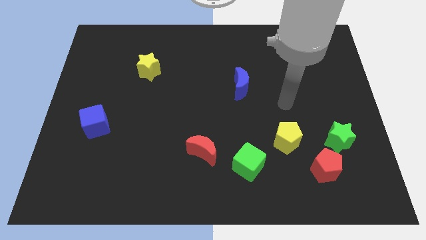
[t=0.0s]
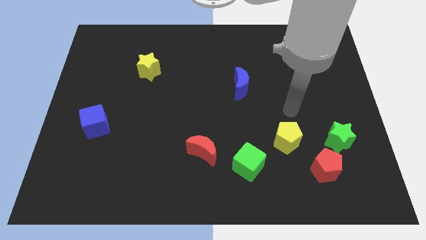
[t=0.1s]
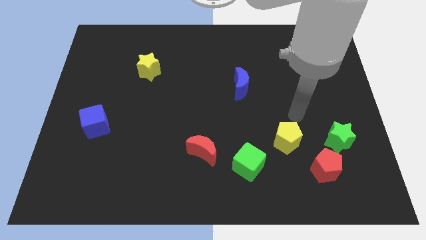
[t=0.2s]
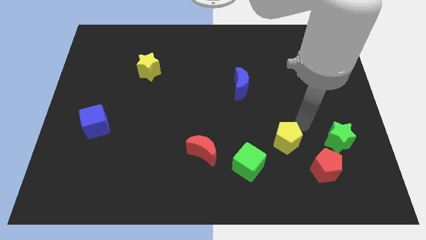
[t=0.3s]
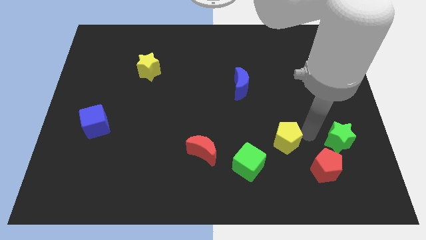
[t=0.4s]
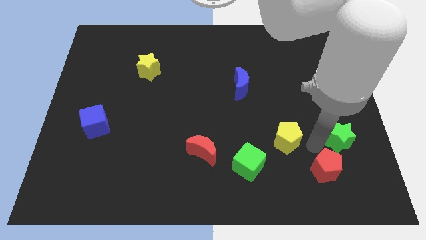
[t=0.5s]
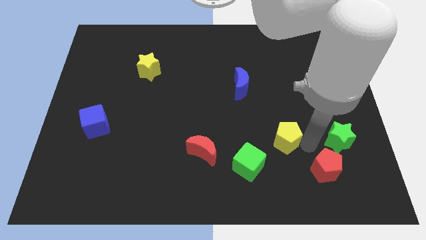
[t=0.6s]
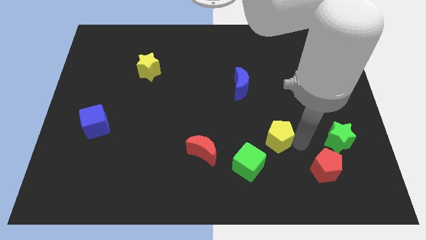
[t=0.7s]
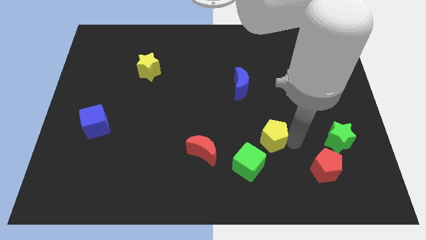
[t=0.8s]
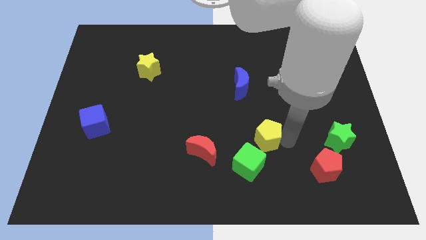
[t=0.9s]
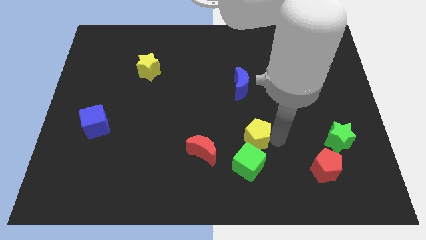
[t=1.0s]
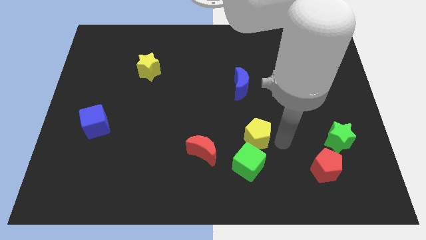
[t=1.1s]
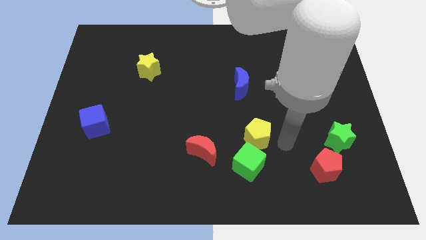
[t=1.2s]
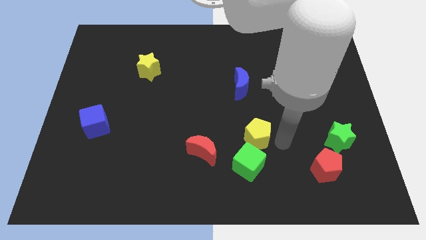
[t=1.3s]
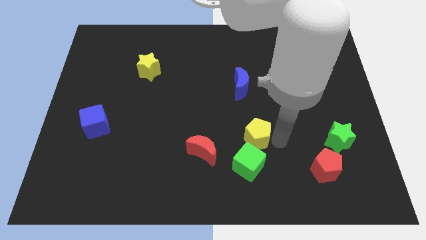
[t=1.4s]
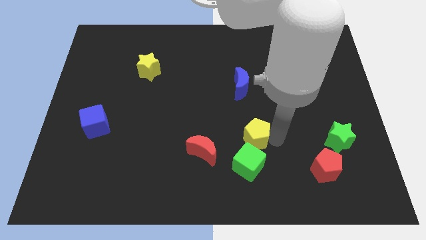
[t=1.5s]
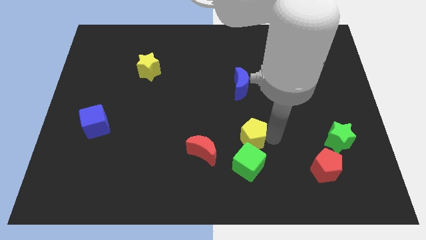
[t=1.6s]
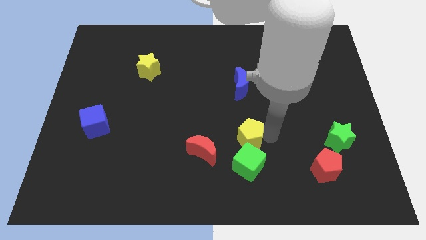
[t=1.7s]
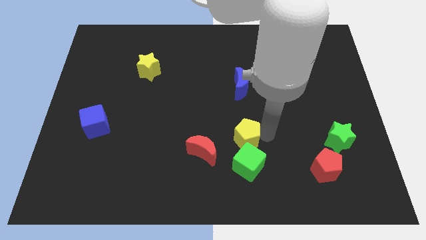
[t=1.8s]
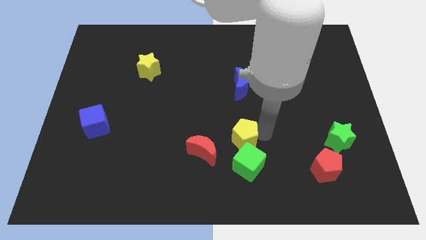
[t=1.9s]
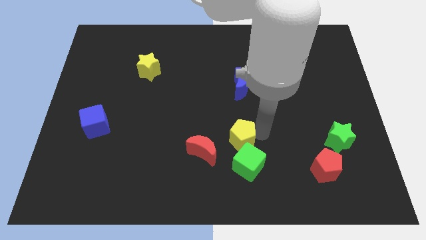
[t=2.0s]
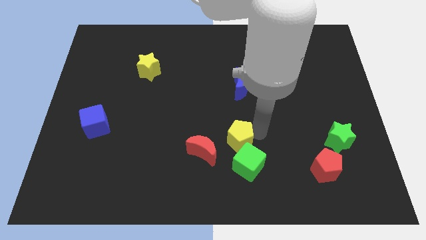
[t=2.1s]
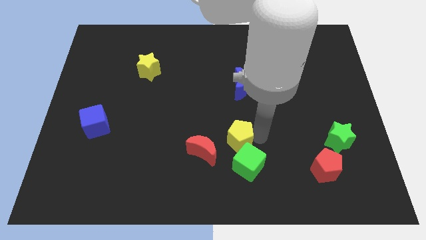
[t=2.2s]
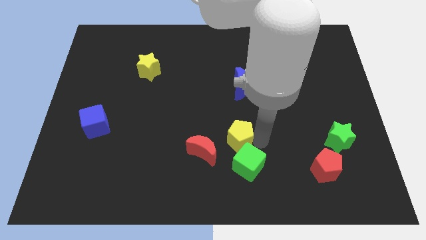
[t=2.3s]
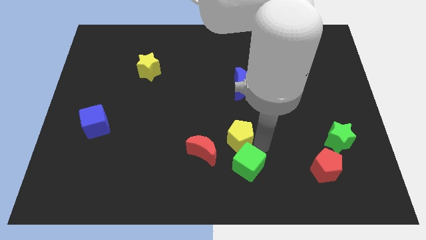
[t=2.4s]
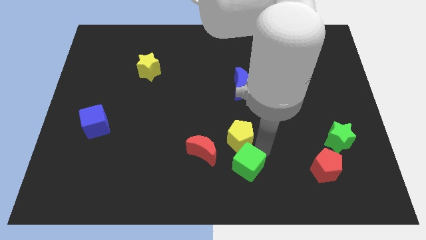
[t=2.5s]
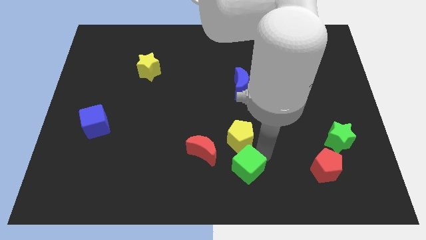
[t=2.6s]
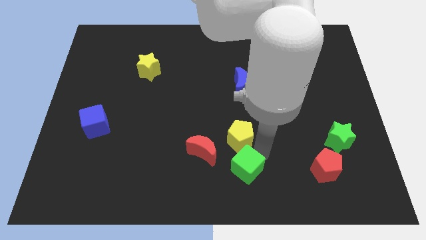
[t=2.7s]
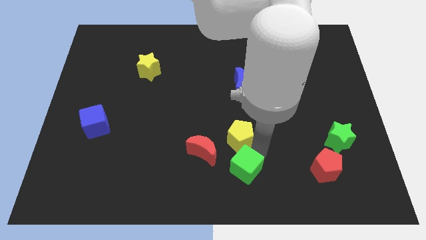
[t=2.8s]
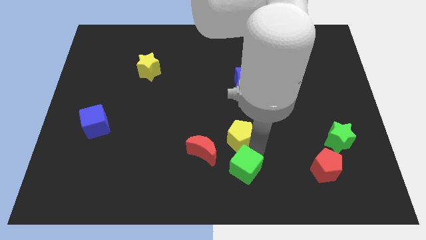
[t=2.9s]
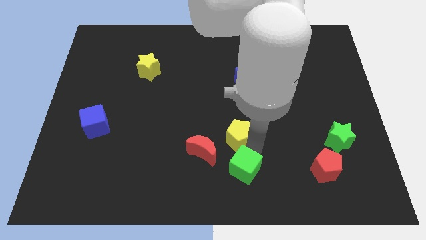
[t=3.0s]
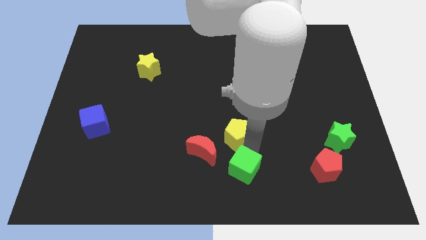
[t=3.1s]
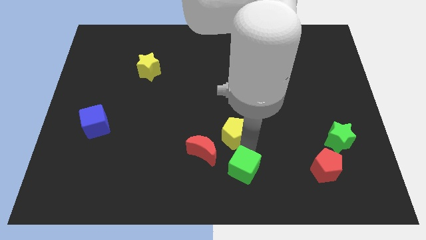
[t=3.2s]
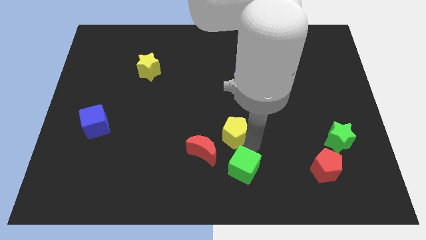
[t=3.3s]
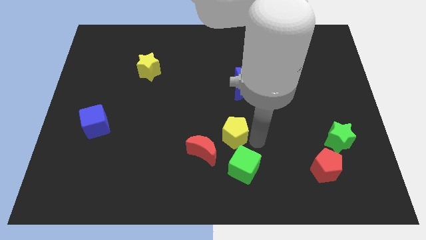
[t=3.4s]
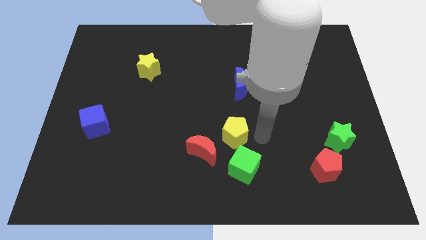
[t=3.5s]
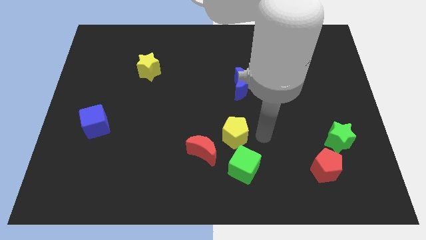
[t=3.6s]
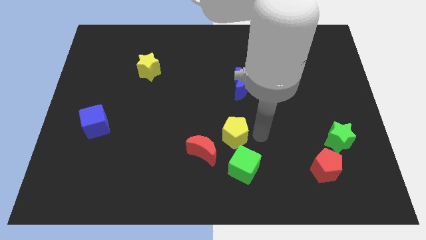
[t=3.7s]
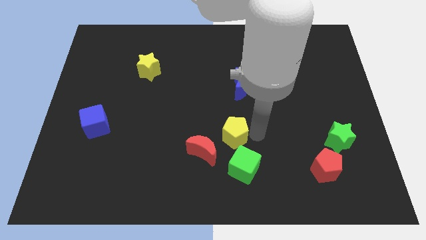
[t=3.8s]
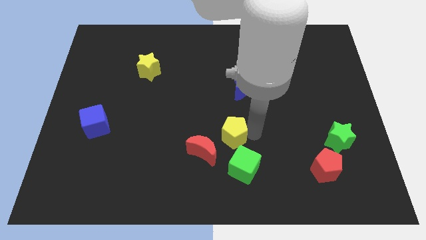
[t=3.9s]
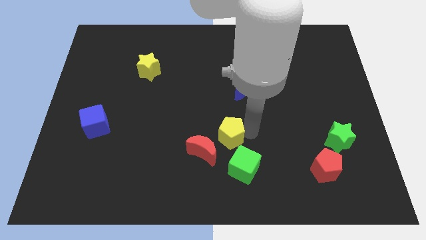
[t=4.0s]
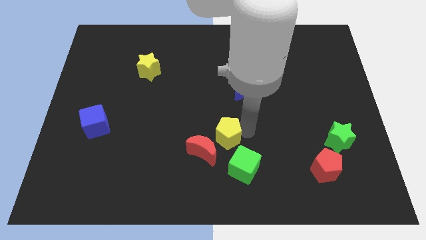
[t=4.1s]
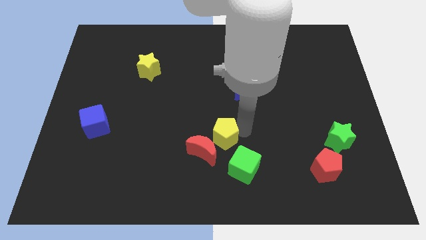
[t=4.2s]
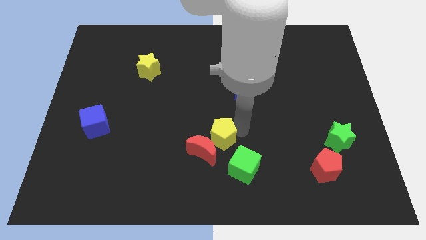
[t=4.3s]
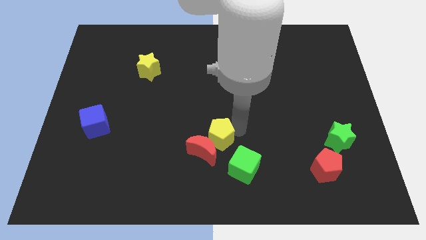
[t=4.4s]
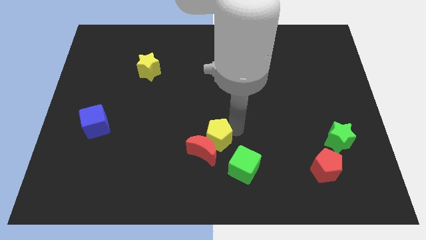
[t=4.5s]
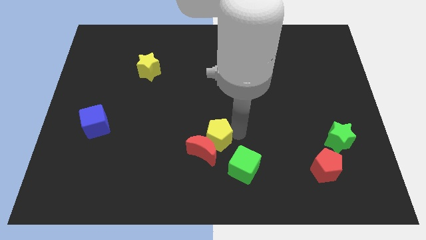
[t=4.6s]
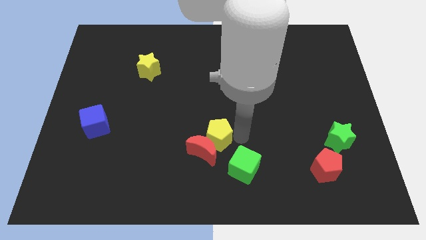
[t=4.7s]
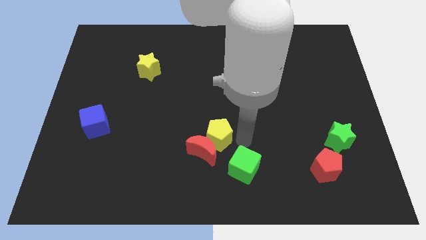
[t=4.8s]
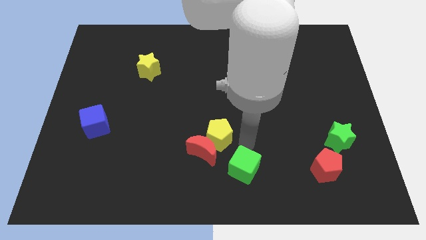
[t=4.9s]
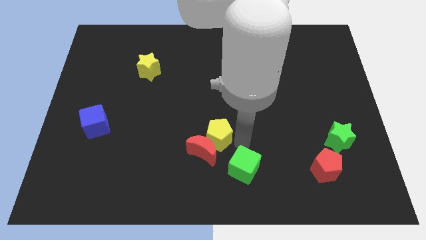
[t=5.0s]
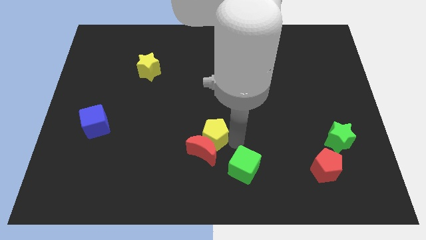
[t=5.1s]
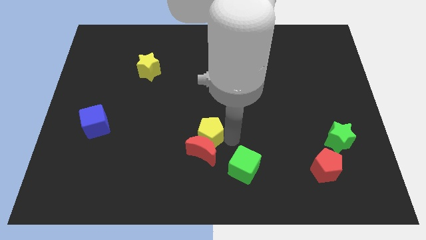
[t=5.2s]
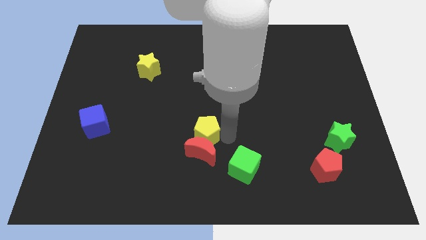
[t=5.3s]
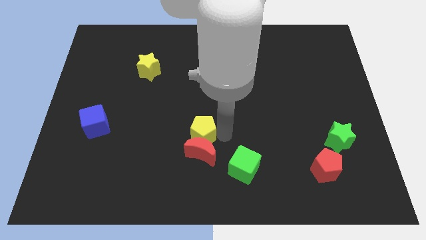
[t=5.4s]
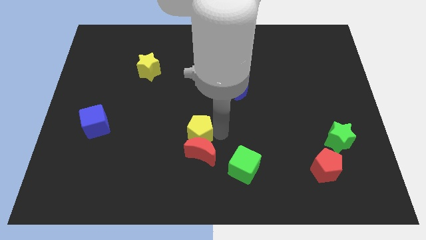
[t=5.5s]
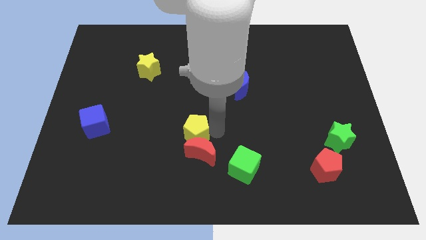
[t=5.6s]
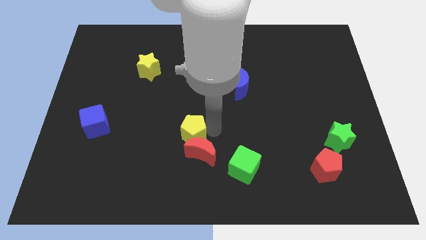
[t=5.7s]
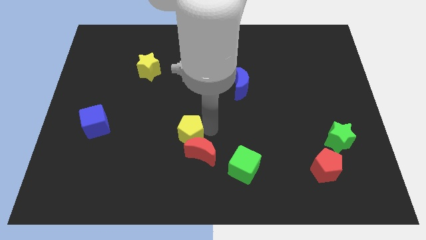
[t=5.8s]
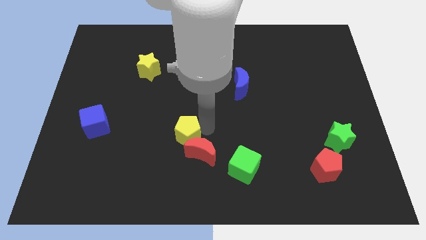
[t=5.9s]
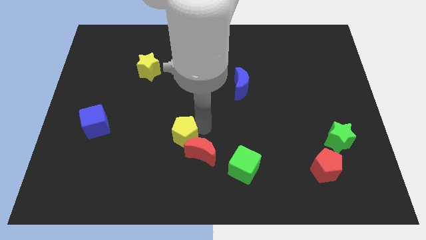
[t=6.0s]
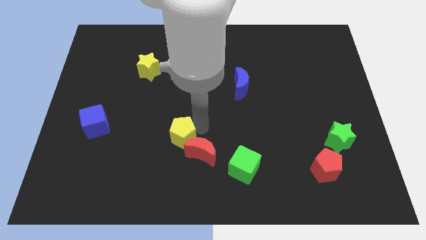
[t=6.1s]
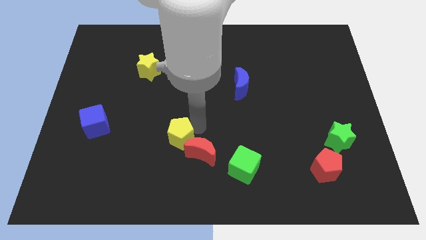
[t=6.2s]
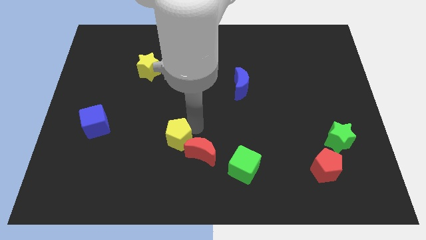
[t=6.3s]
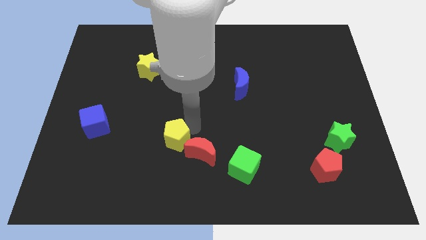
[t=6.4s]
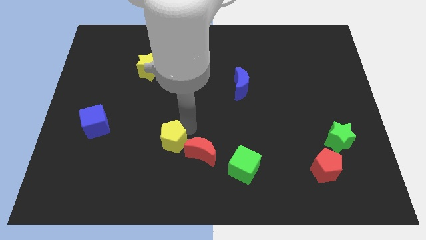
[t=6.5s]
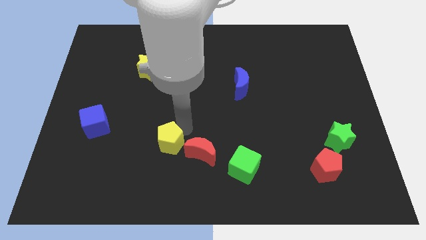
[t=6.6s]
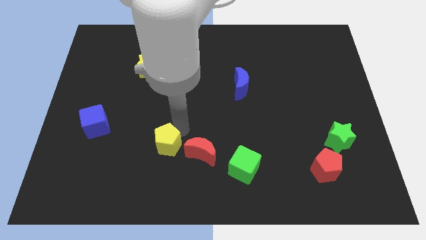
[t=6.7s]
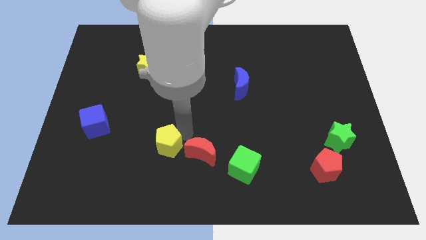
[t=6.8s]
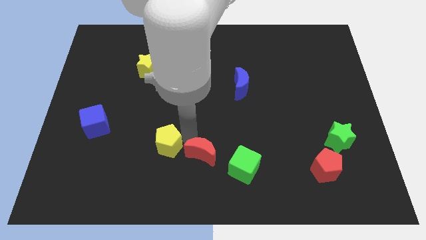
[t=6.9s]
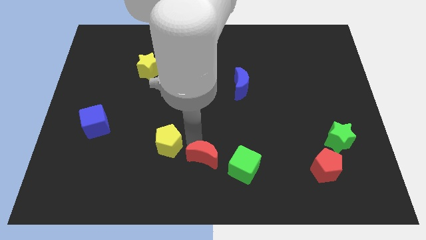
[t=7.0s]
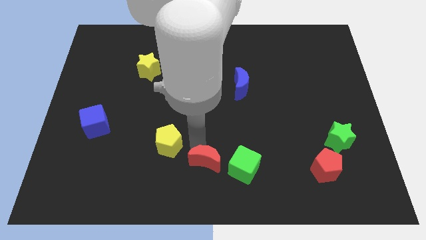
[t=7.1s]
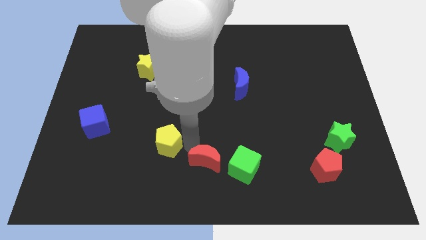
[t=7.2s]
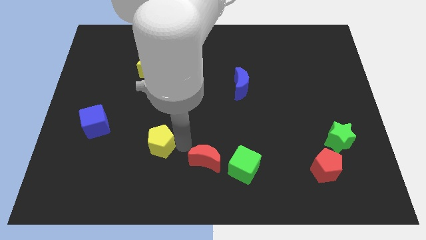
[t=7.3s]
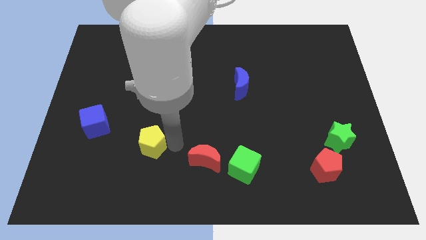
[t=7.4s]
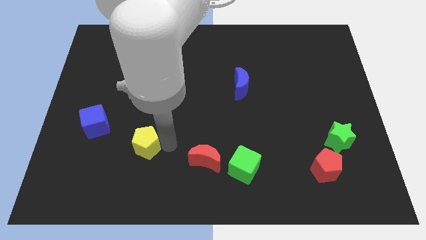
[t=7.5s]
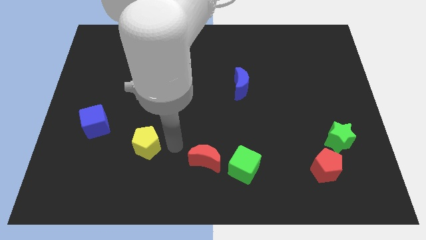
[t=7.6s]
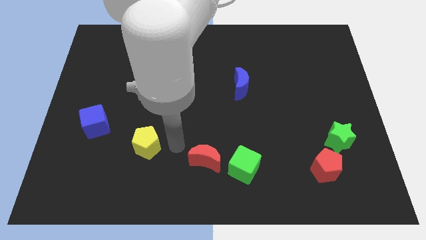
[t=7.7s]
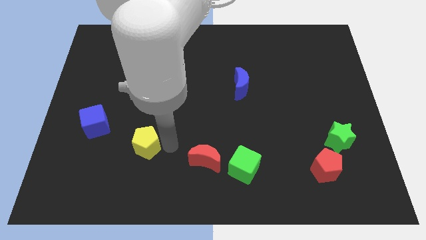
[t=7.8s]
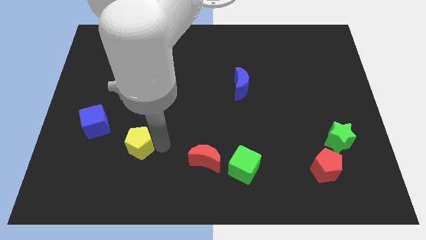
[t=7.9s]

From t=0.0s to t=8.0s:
slide the yellow pentagon diagonally down and to the right of the blue cube
